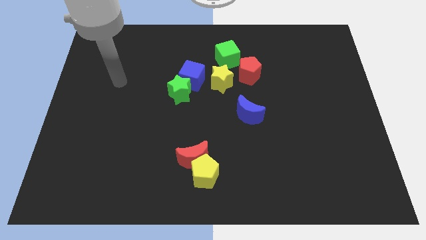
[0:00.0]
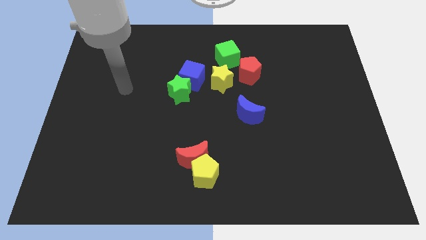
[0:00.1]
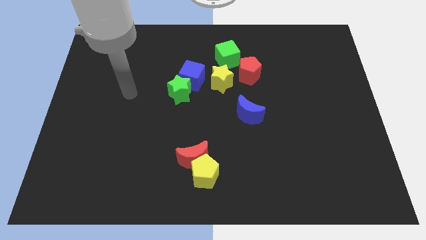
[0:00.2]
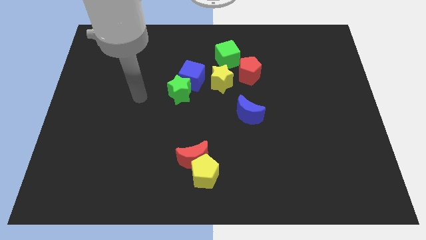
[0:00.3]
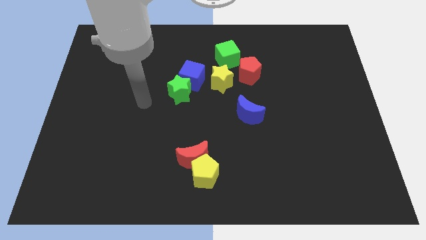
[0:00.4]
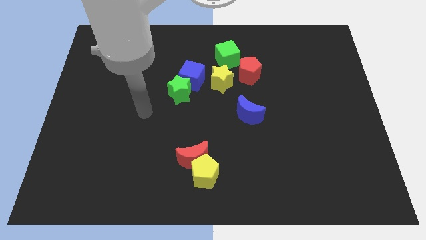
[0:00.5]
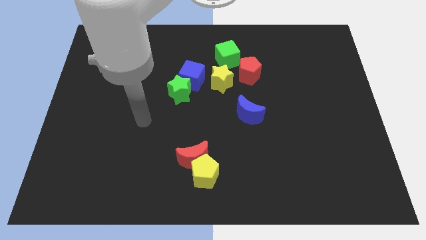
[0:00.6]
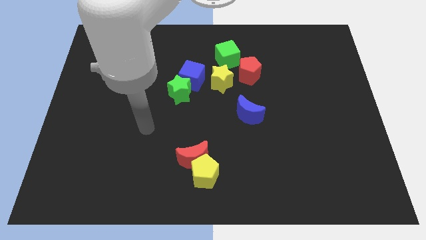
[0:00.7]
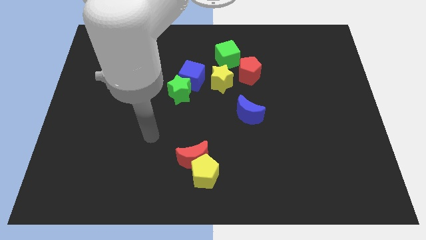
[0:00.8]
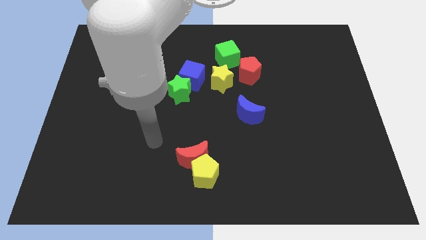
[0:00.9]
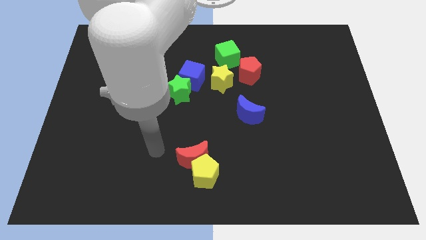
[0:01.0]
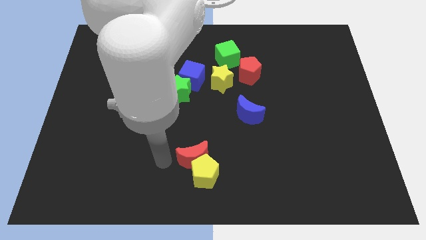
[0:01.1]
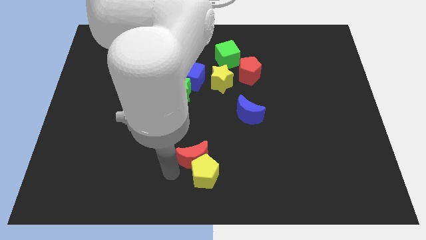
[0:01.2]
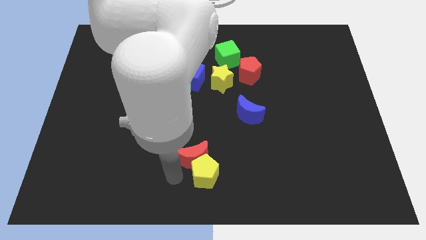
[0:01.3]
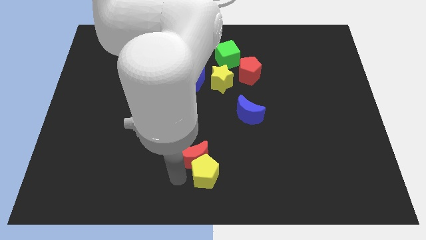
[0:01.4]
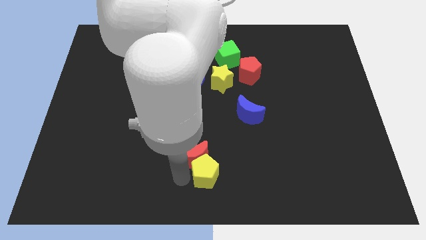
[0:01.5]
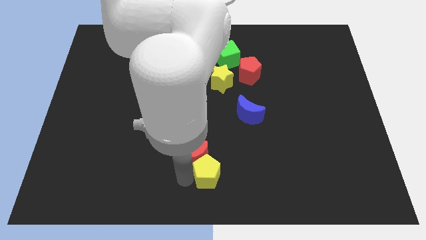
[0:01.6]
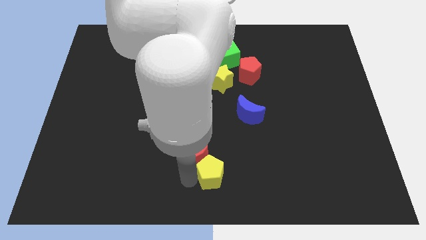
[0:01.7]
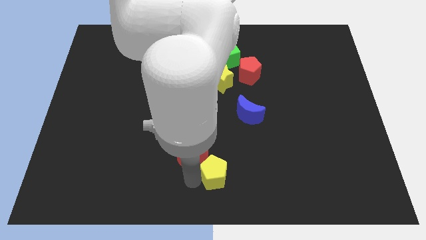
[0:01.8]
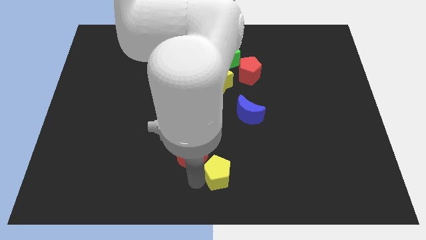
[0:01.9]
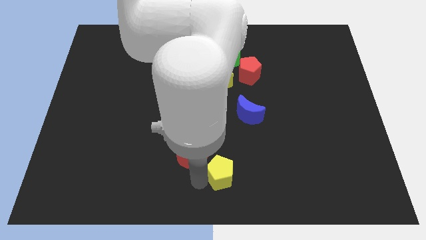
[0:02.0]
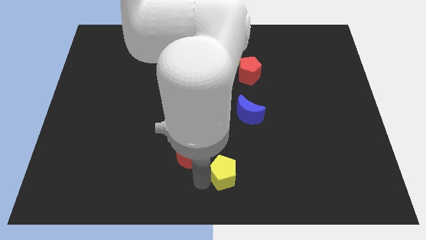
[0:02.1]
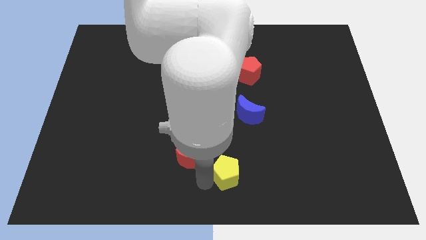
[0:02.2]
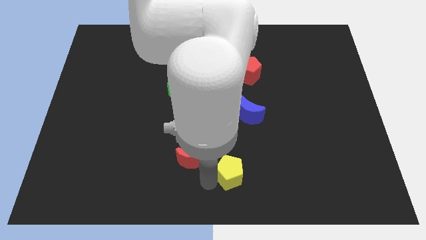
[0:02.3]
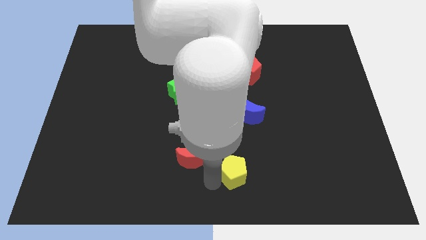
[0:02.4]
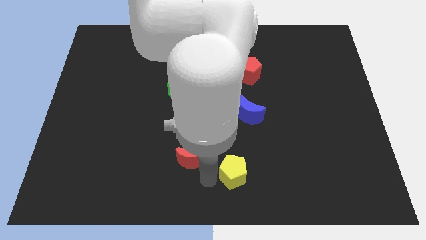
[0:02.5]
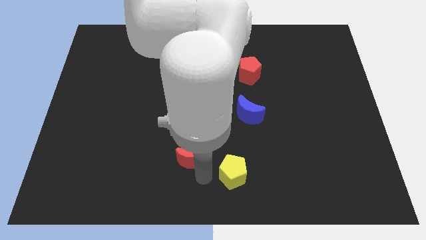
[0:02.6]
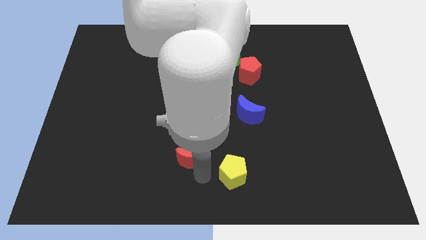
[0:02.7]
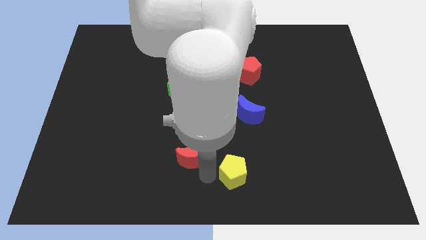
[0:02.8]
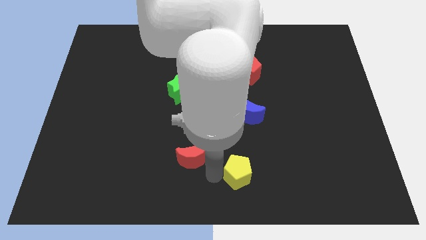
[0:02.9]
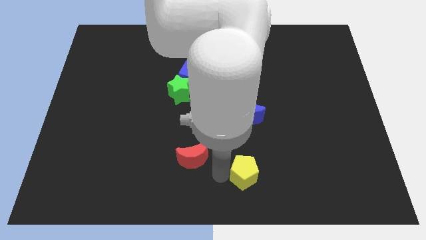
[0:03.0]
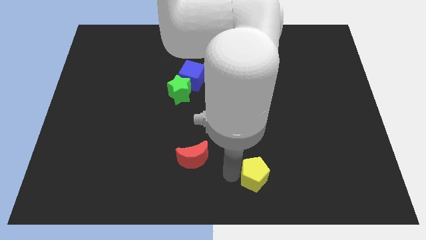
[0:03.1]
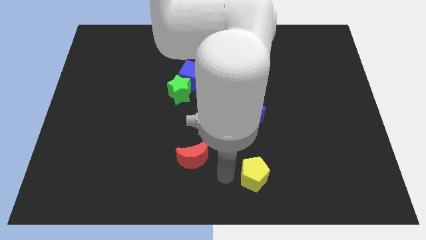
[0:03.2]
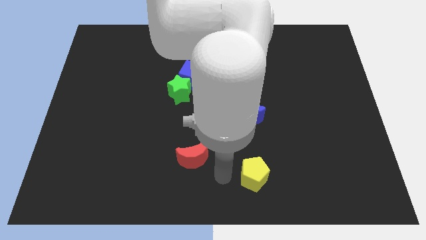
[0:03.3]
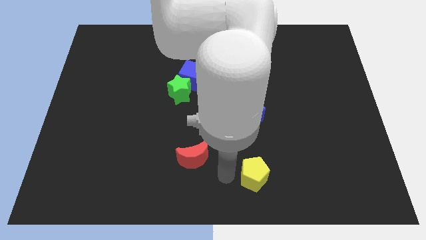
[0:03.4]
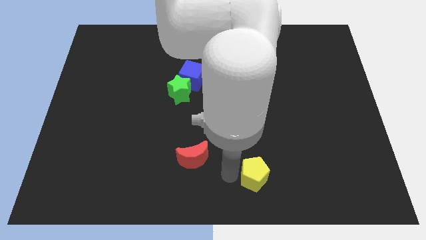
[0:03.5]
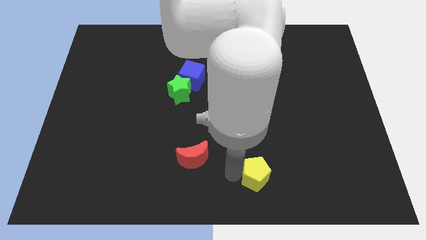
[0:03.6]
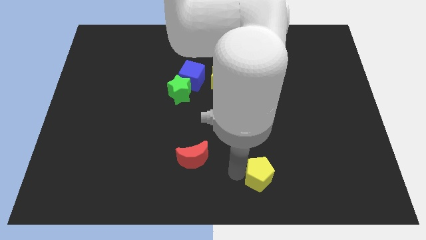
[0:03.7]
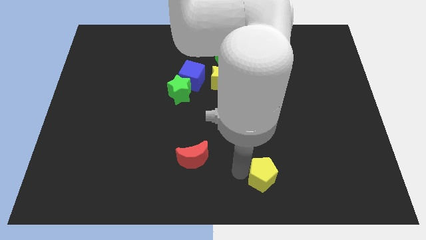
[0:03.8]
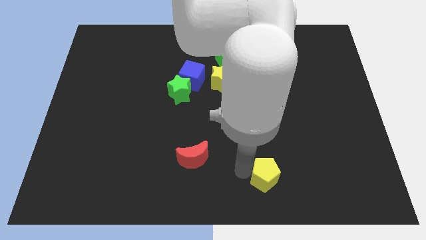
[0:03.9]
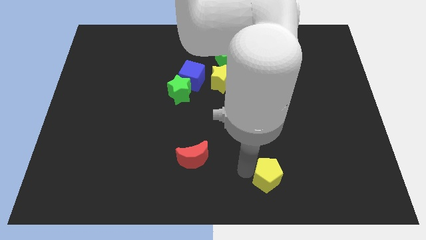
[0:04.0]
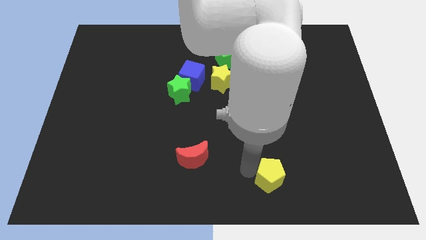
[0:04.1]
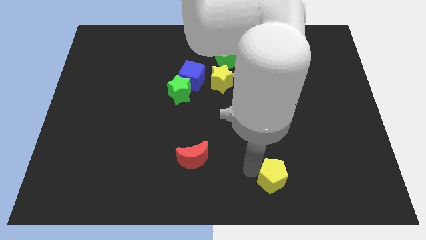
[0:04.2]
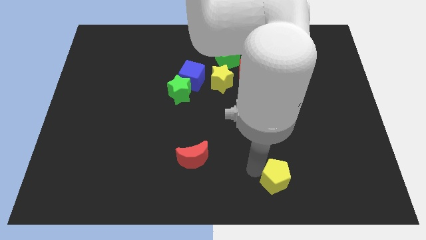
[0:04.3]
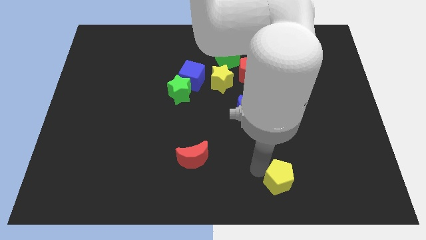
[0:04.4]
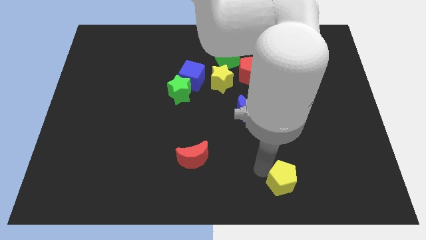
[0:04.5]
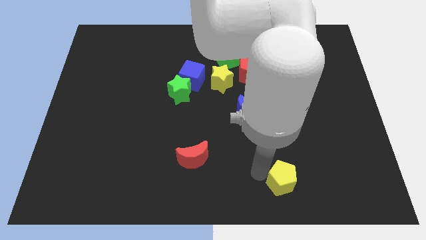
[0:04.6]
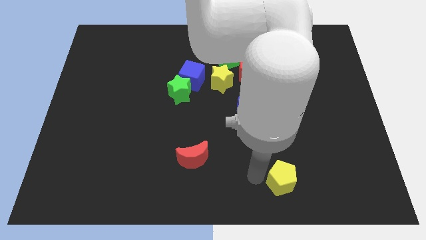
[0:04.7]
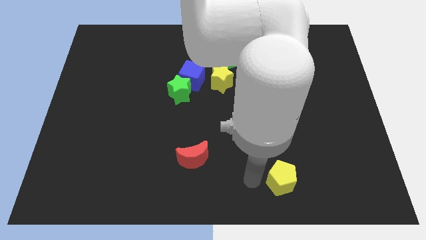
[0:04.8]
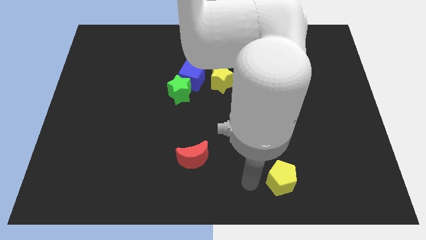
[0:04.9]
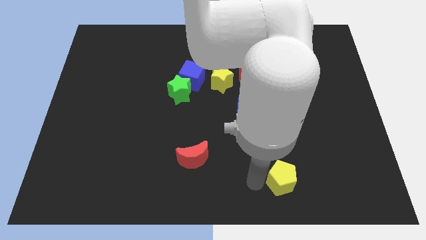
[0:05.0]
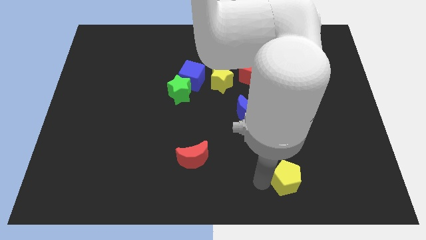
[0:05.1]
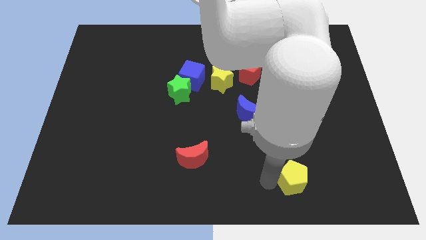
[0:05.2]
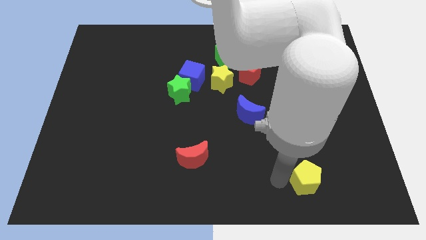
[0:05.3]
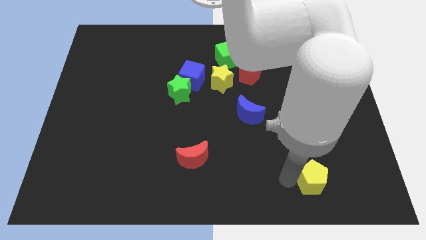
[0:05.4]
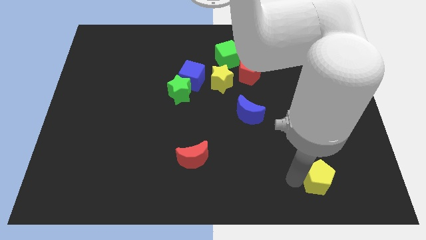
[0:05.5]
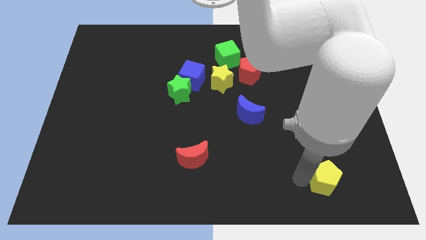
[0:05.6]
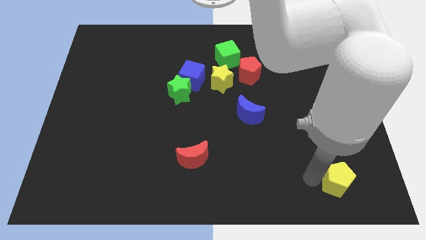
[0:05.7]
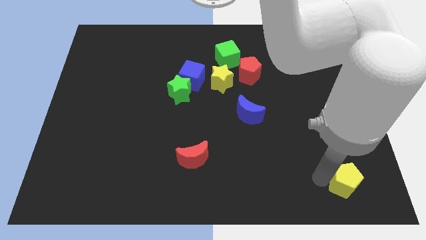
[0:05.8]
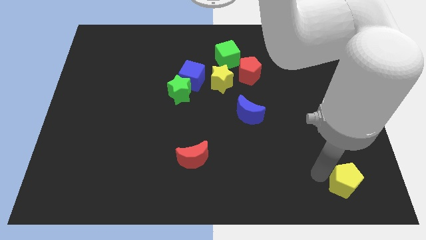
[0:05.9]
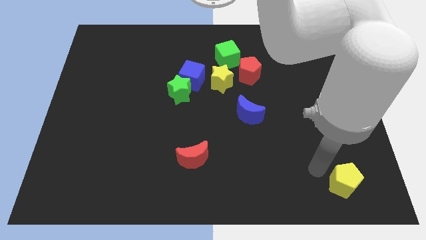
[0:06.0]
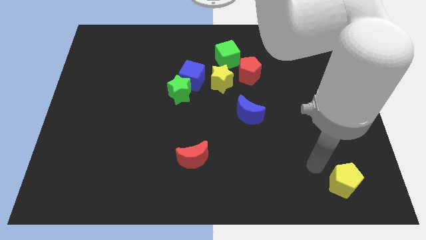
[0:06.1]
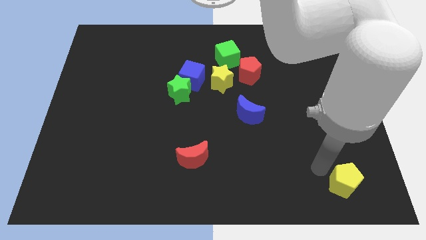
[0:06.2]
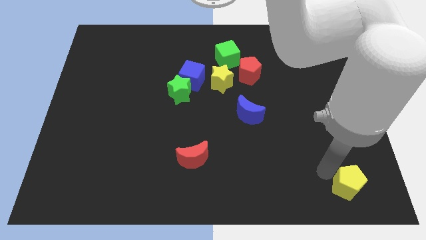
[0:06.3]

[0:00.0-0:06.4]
move the yellow pentagon to the lower right corner
